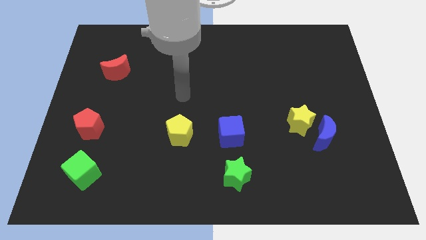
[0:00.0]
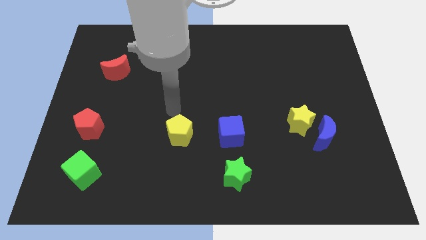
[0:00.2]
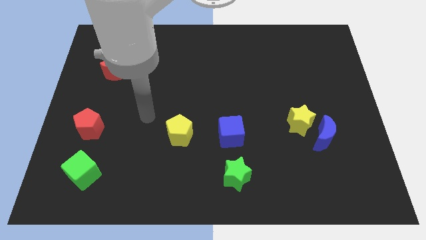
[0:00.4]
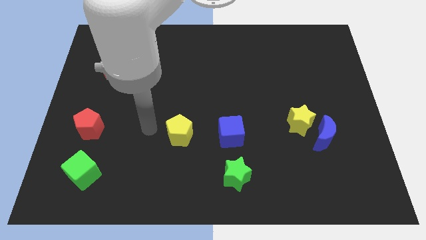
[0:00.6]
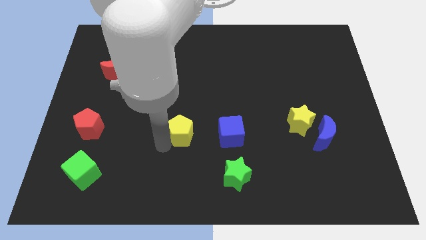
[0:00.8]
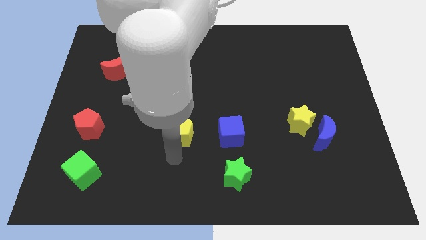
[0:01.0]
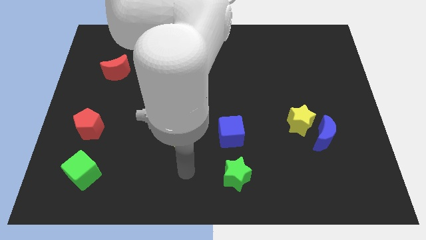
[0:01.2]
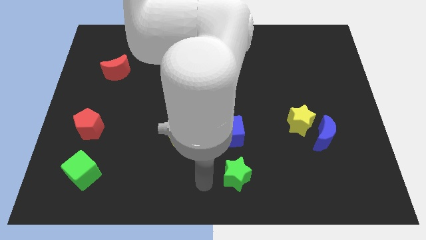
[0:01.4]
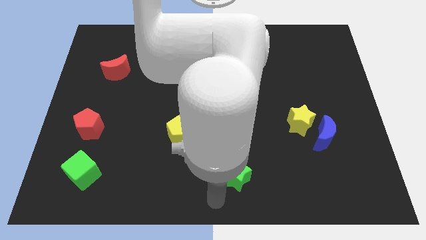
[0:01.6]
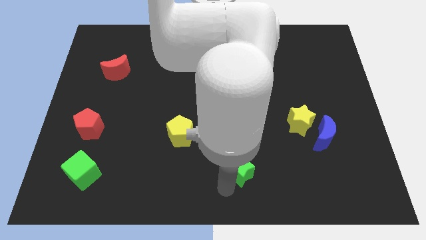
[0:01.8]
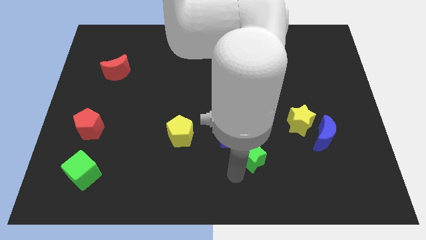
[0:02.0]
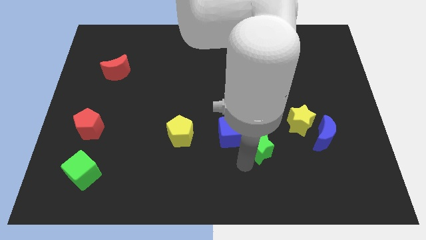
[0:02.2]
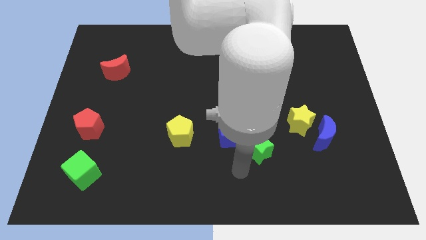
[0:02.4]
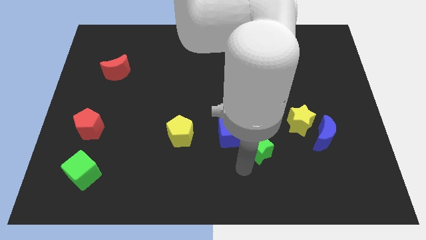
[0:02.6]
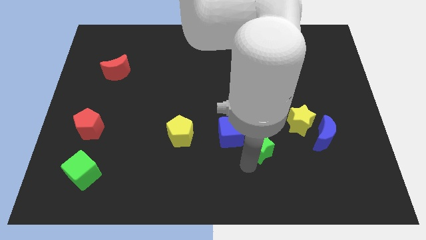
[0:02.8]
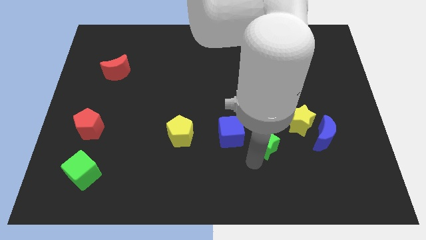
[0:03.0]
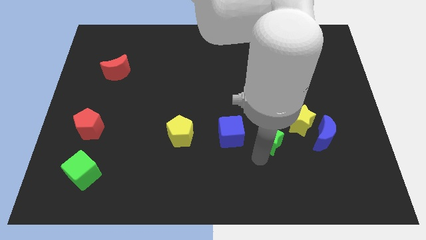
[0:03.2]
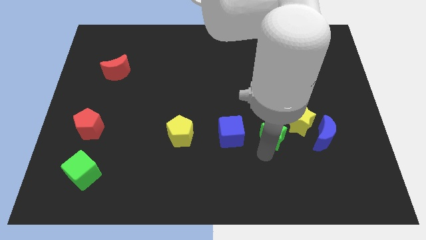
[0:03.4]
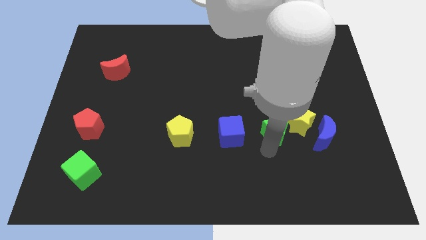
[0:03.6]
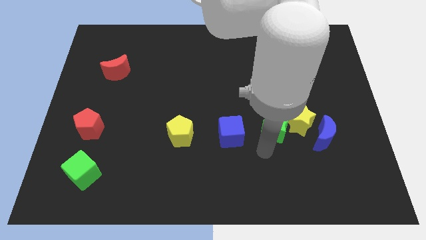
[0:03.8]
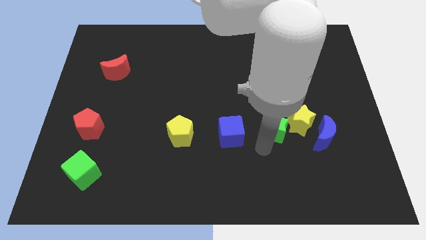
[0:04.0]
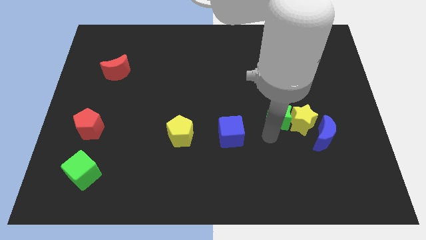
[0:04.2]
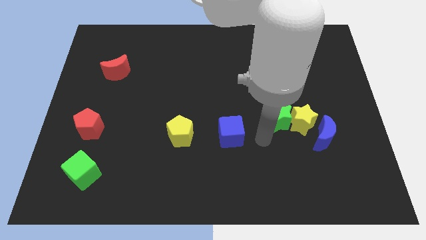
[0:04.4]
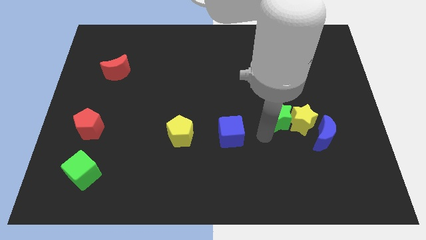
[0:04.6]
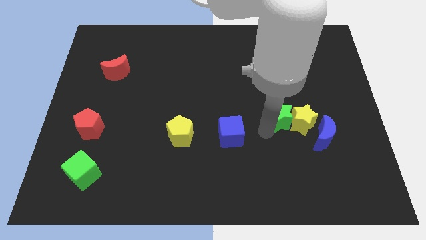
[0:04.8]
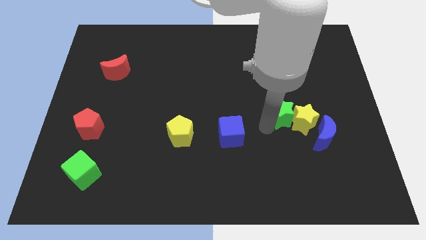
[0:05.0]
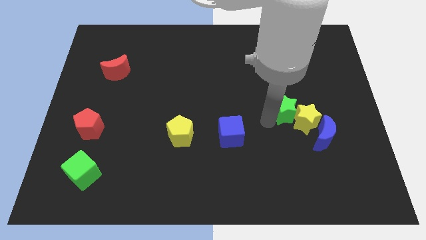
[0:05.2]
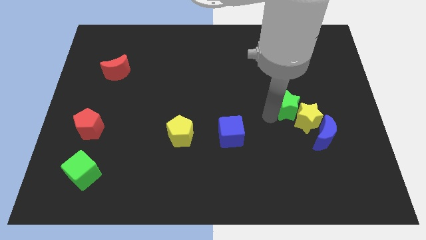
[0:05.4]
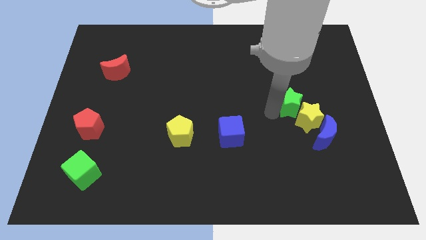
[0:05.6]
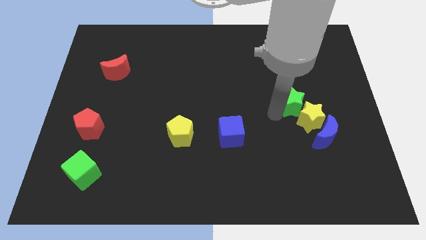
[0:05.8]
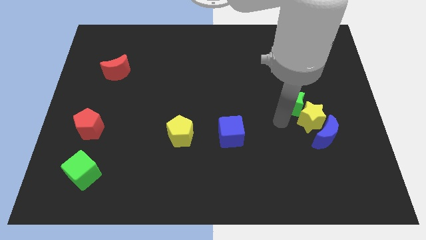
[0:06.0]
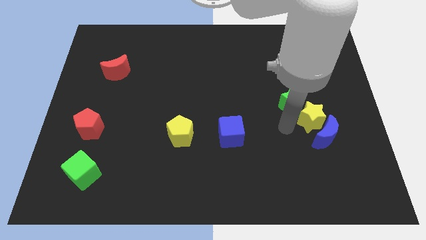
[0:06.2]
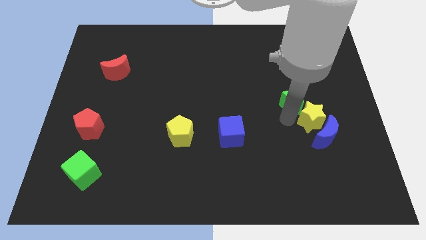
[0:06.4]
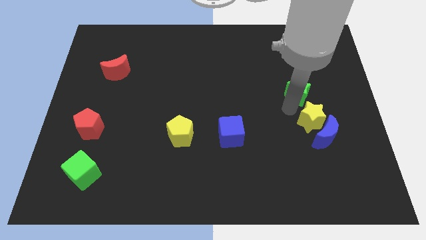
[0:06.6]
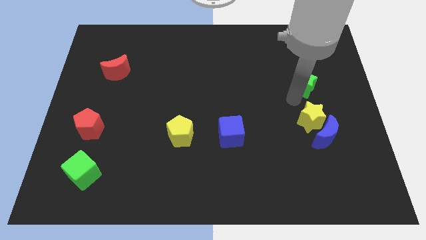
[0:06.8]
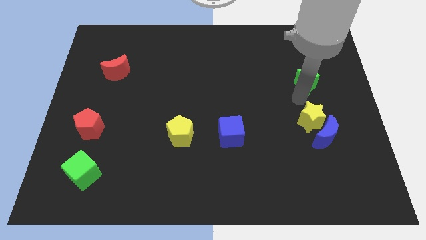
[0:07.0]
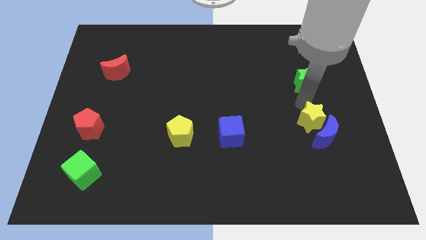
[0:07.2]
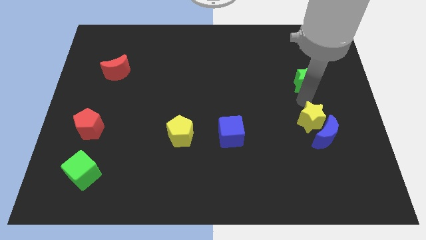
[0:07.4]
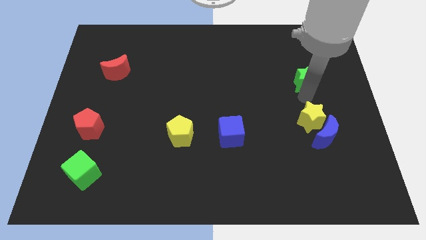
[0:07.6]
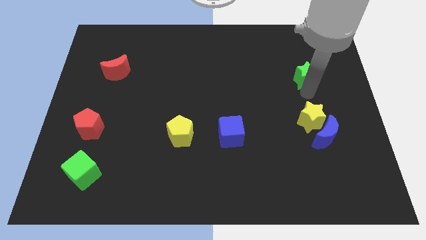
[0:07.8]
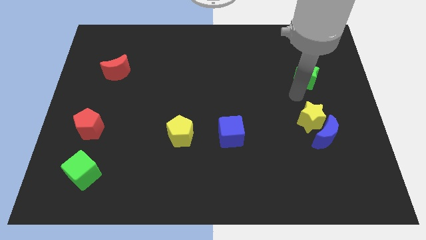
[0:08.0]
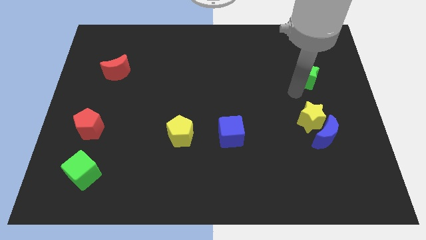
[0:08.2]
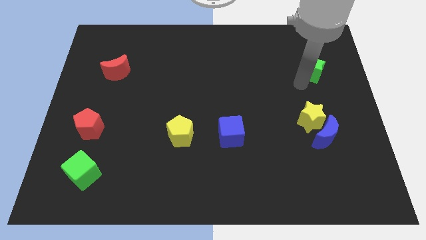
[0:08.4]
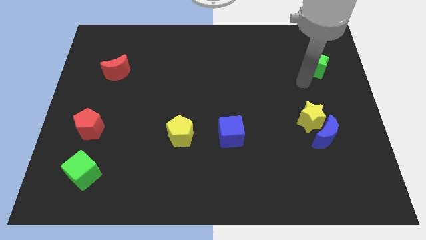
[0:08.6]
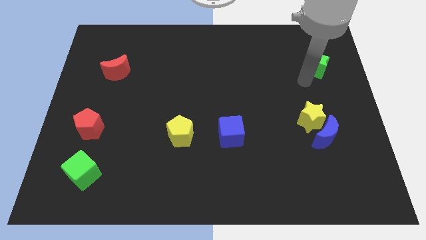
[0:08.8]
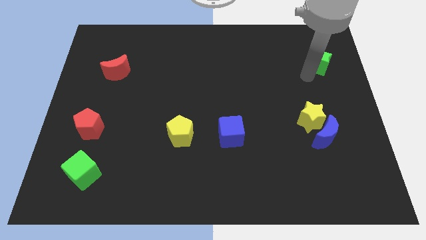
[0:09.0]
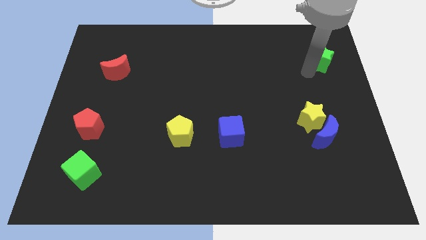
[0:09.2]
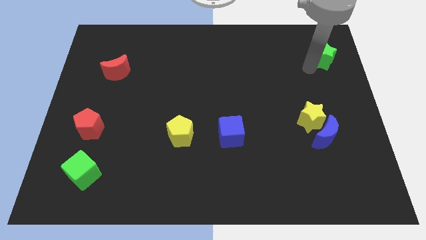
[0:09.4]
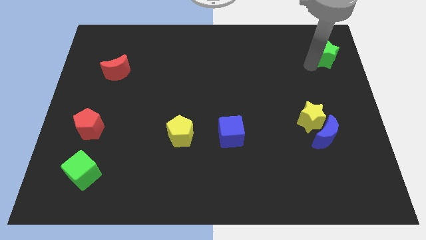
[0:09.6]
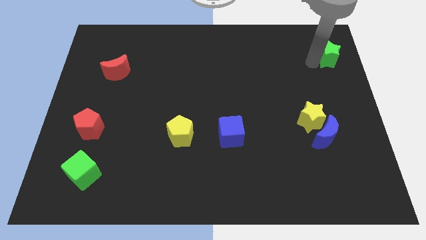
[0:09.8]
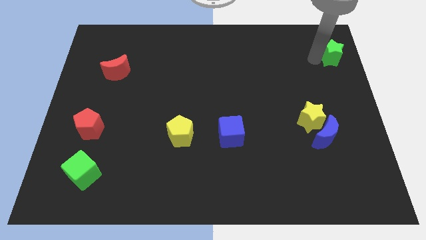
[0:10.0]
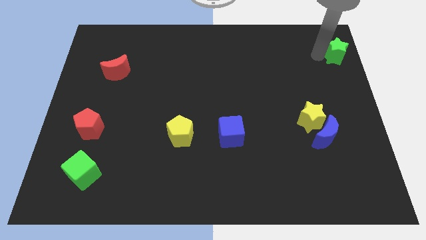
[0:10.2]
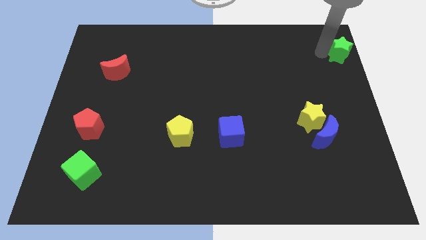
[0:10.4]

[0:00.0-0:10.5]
put the green star to the upper right corner

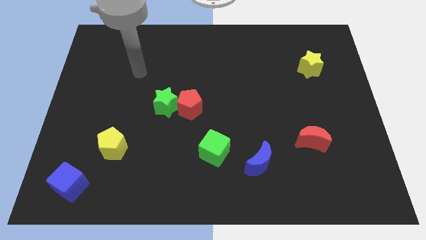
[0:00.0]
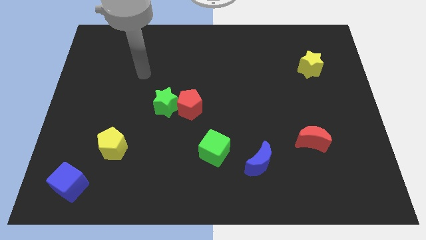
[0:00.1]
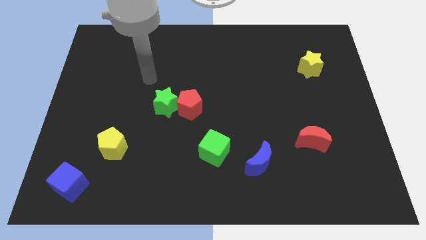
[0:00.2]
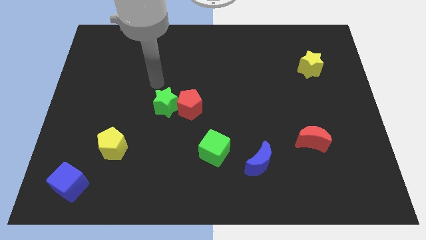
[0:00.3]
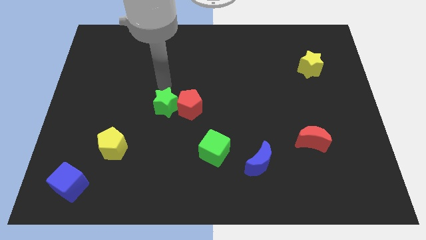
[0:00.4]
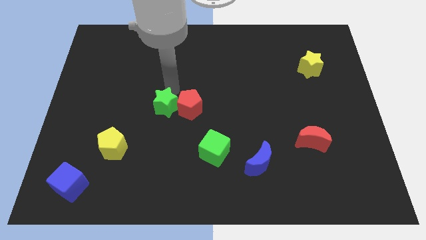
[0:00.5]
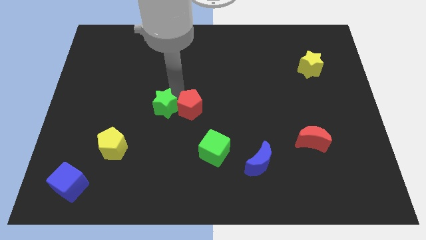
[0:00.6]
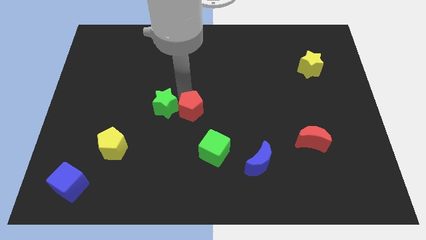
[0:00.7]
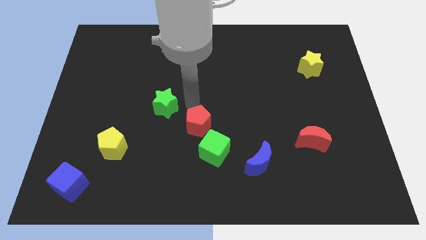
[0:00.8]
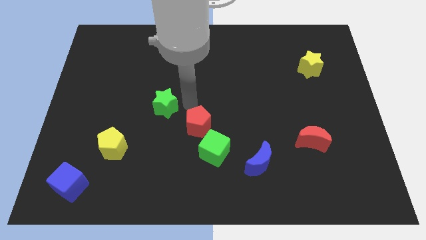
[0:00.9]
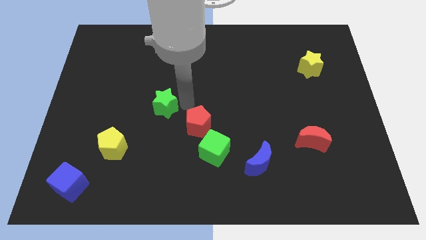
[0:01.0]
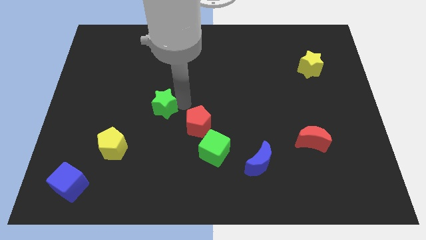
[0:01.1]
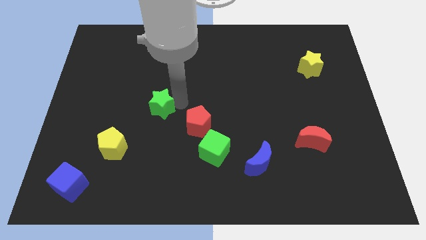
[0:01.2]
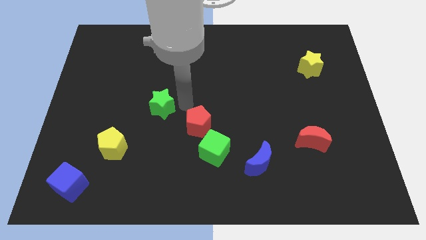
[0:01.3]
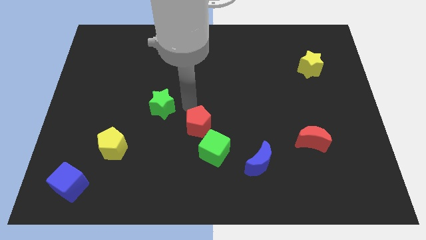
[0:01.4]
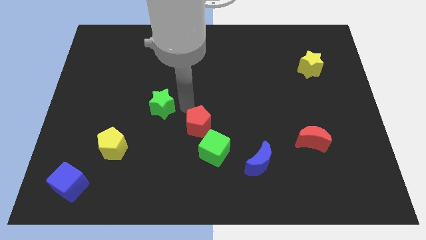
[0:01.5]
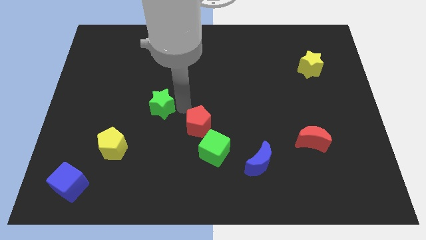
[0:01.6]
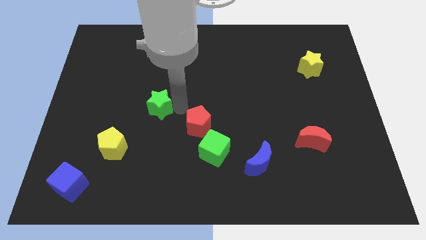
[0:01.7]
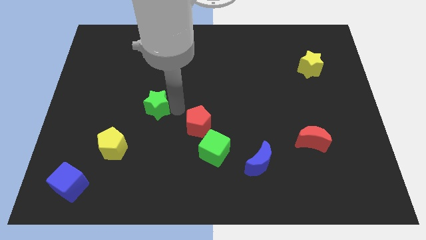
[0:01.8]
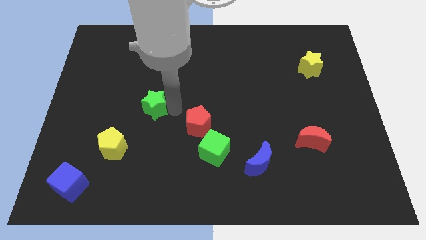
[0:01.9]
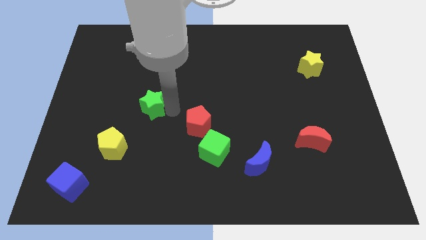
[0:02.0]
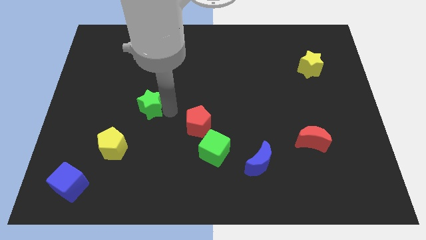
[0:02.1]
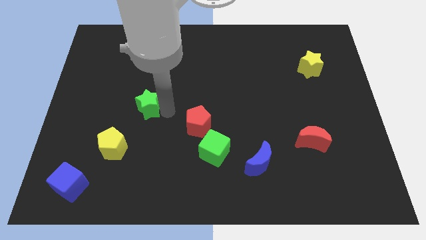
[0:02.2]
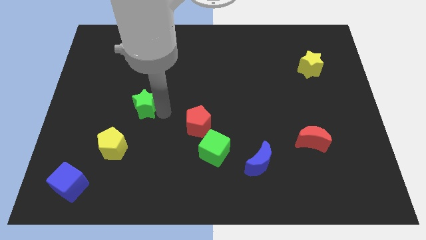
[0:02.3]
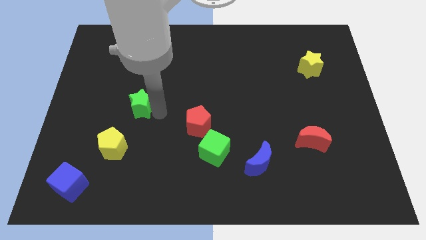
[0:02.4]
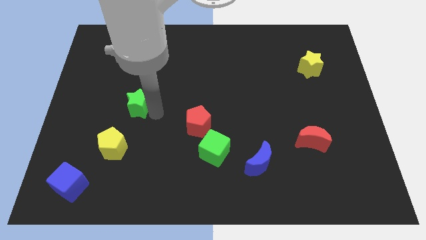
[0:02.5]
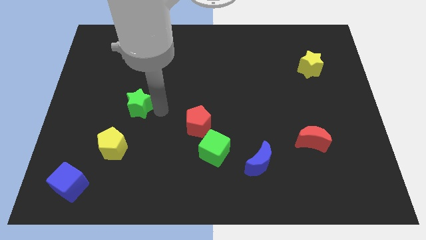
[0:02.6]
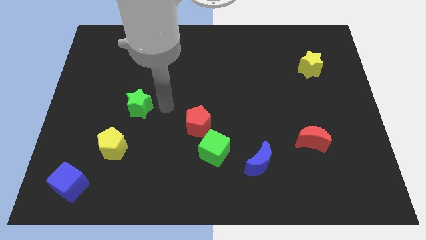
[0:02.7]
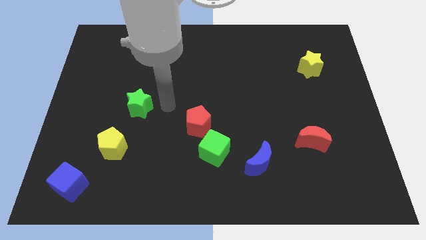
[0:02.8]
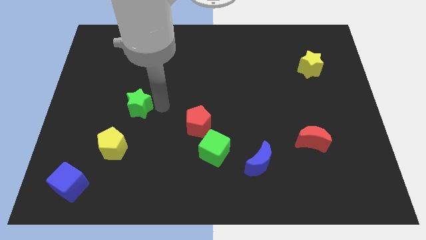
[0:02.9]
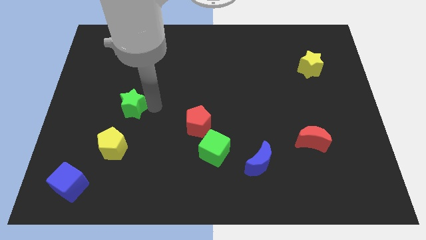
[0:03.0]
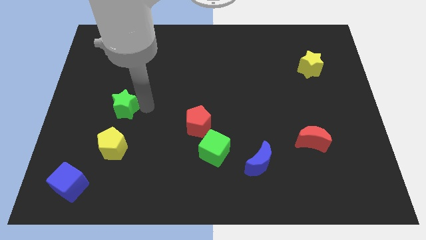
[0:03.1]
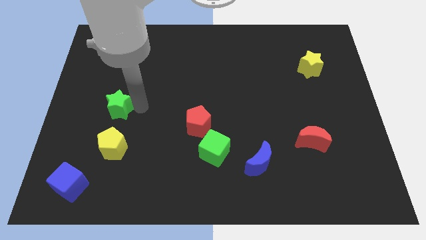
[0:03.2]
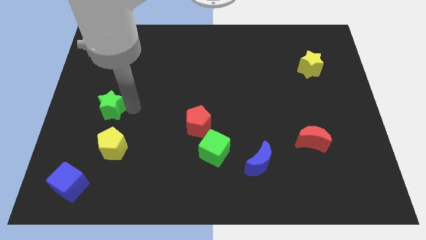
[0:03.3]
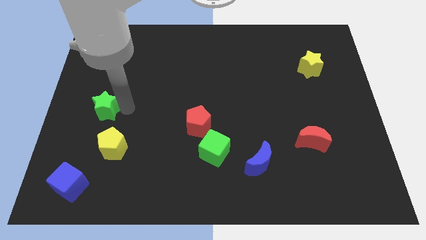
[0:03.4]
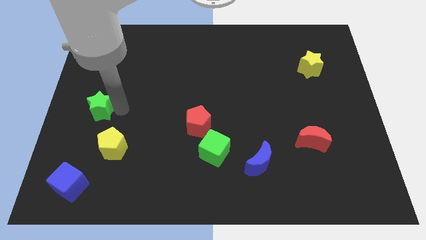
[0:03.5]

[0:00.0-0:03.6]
move the green star to the center left
